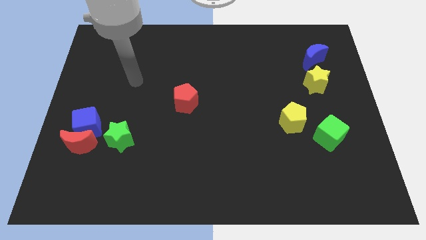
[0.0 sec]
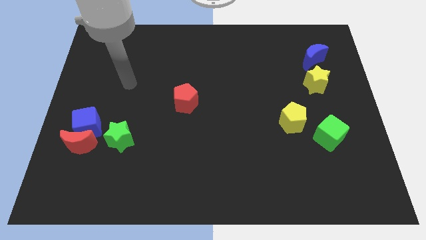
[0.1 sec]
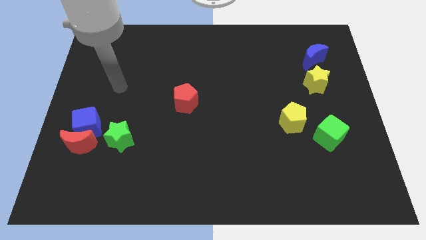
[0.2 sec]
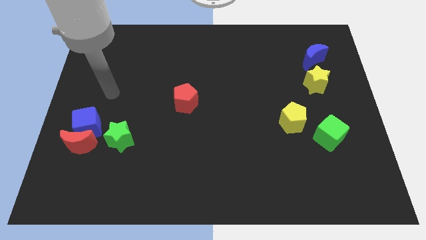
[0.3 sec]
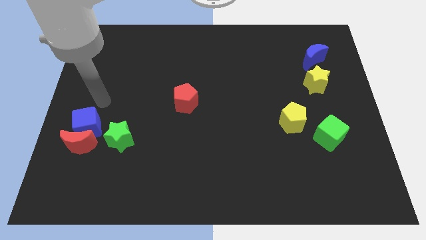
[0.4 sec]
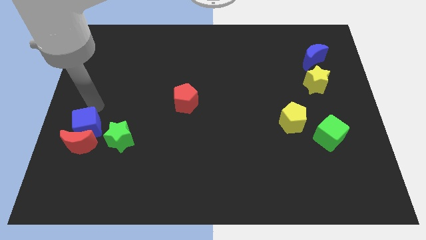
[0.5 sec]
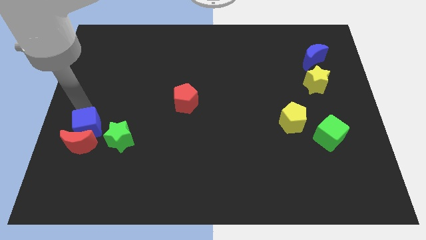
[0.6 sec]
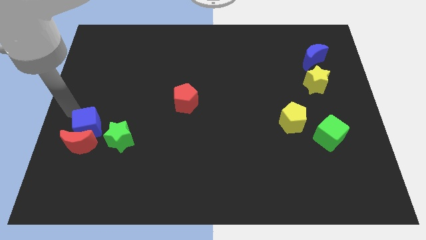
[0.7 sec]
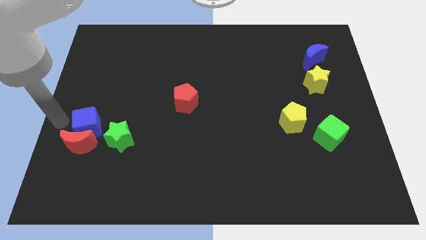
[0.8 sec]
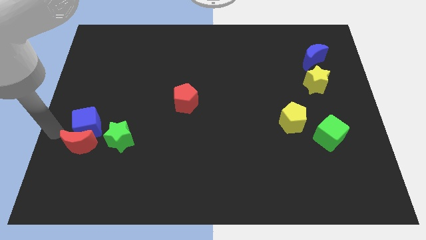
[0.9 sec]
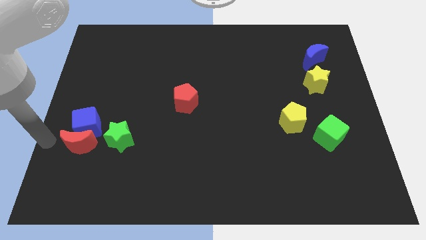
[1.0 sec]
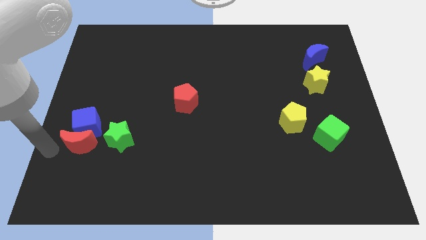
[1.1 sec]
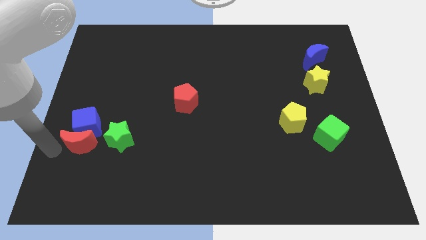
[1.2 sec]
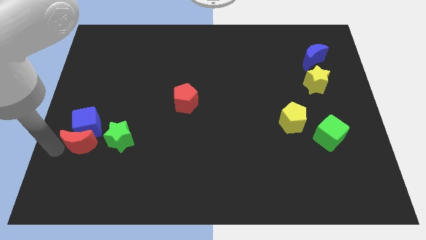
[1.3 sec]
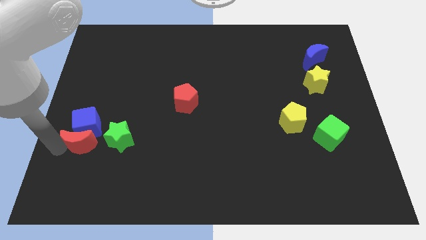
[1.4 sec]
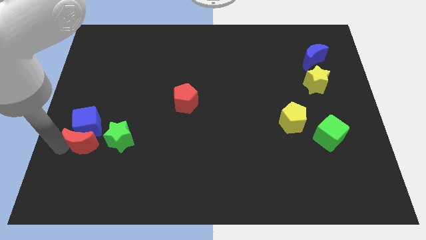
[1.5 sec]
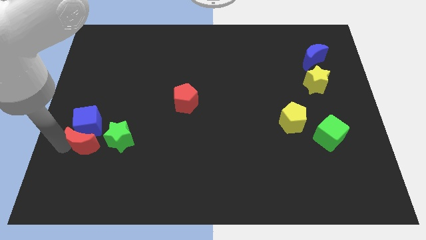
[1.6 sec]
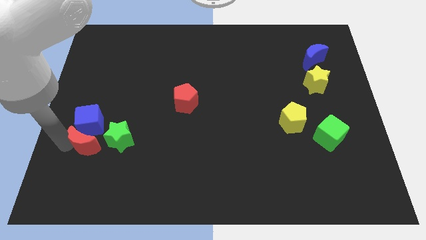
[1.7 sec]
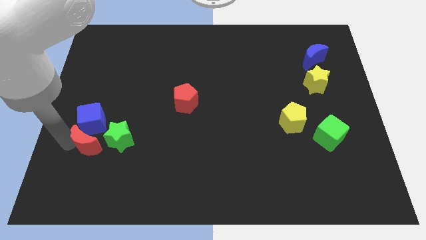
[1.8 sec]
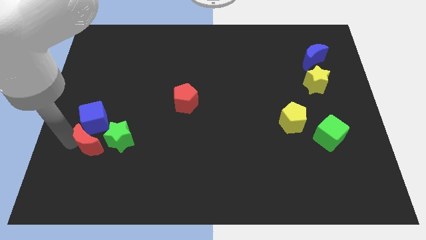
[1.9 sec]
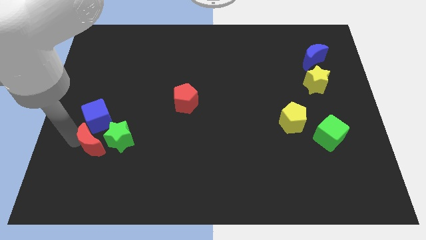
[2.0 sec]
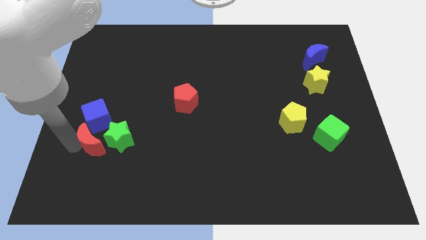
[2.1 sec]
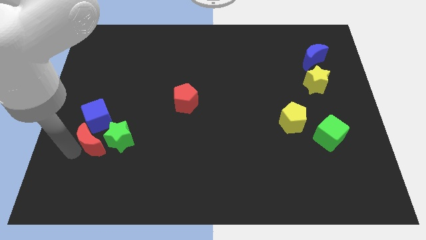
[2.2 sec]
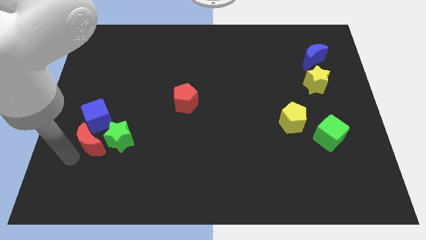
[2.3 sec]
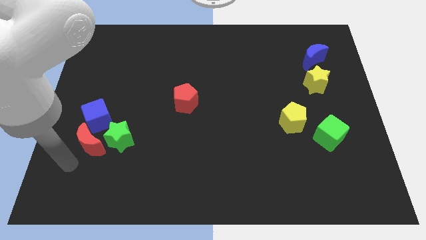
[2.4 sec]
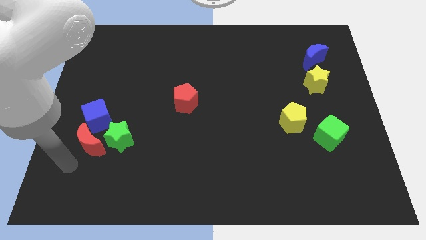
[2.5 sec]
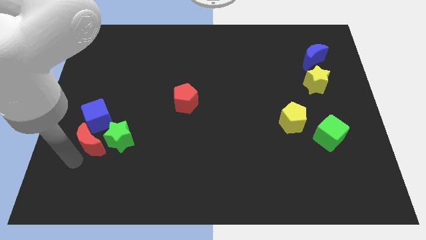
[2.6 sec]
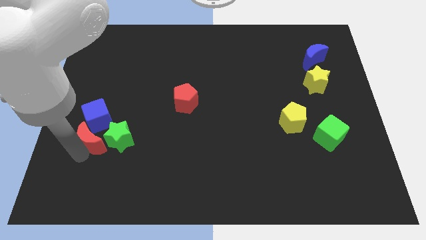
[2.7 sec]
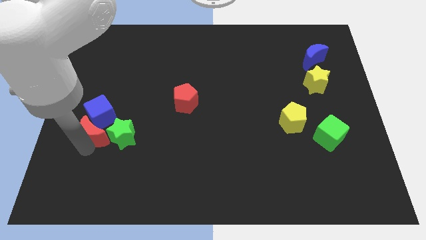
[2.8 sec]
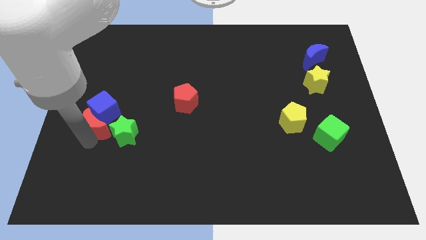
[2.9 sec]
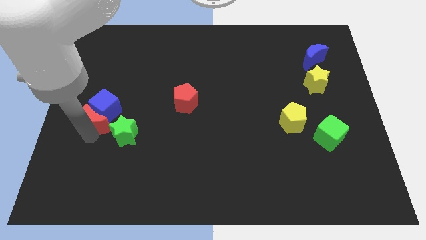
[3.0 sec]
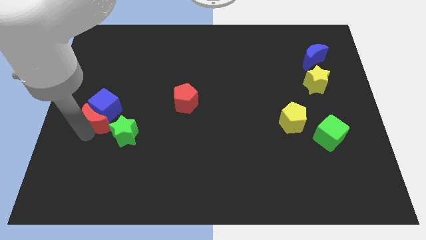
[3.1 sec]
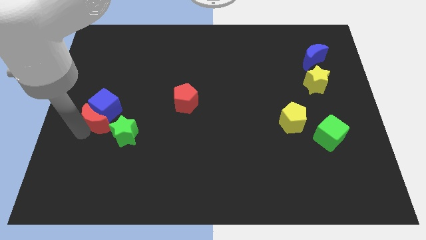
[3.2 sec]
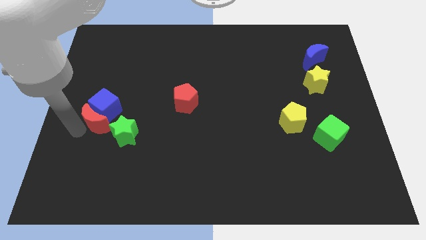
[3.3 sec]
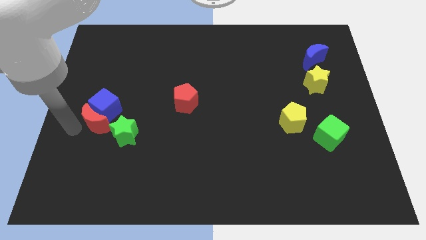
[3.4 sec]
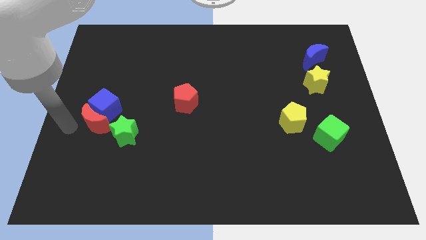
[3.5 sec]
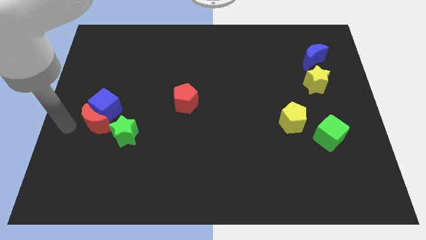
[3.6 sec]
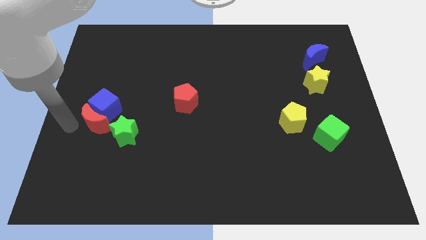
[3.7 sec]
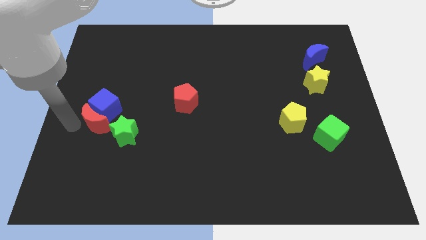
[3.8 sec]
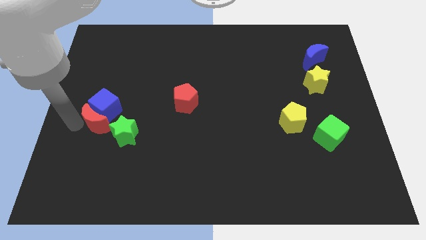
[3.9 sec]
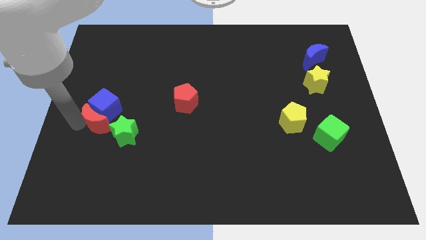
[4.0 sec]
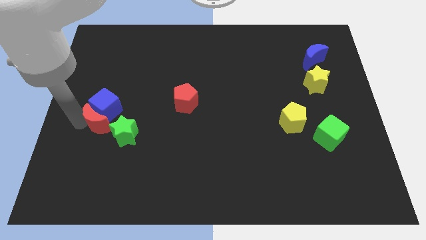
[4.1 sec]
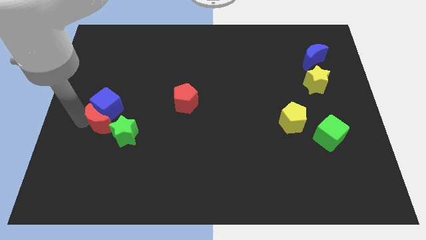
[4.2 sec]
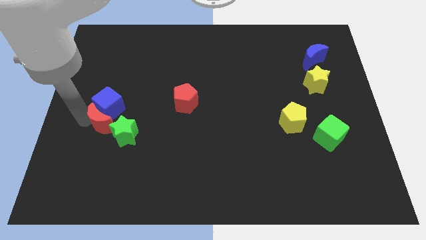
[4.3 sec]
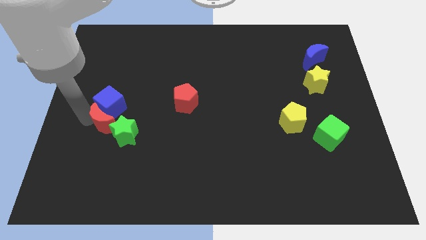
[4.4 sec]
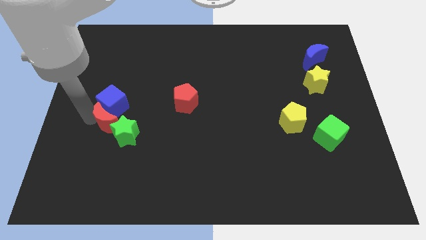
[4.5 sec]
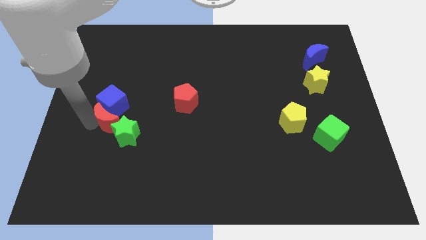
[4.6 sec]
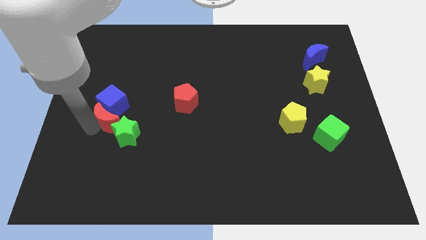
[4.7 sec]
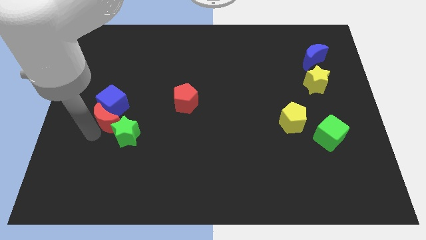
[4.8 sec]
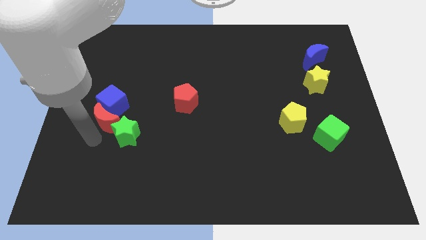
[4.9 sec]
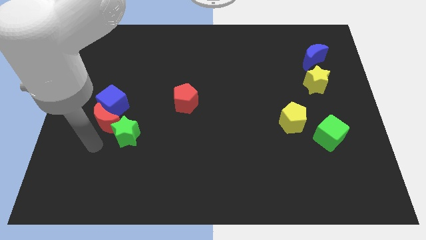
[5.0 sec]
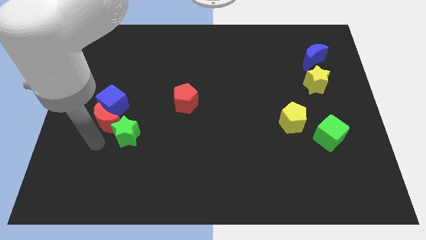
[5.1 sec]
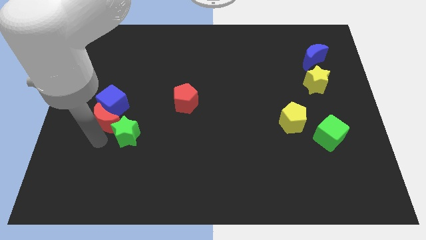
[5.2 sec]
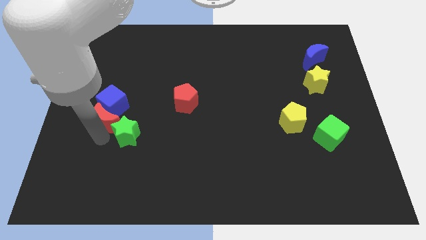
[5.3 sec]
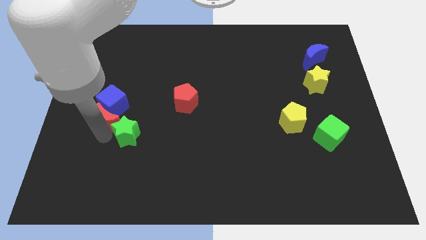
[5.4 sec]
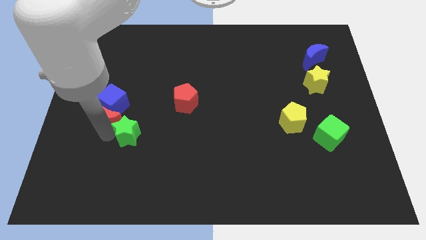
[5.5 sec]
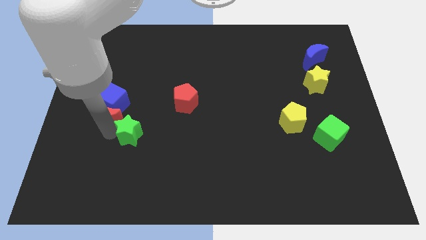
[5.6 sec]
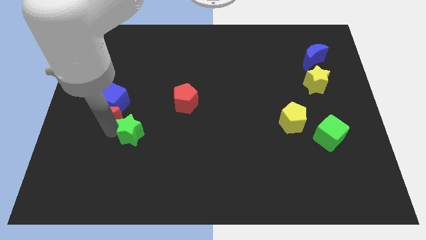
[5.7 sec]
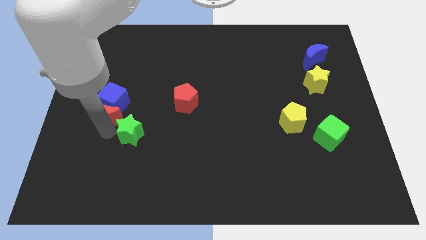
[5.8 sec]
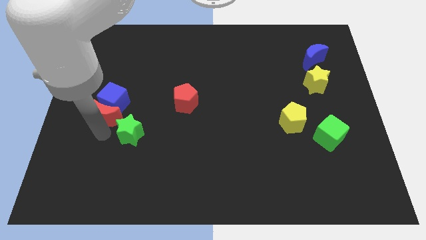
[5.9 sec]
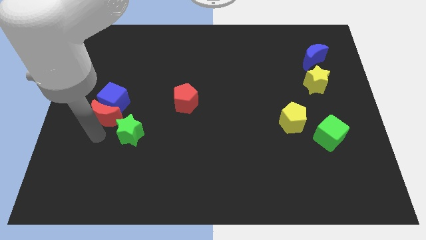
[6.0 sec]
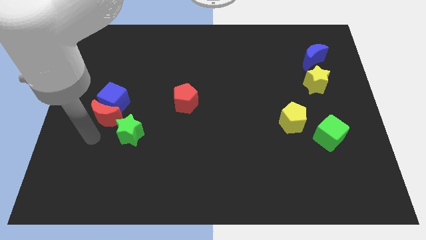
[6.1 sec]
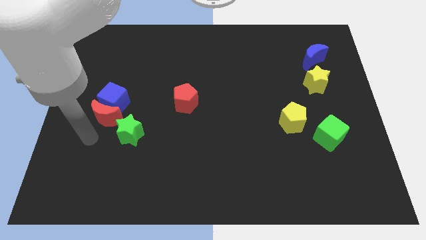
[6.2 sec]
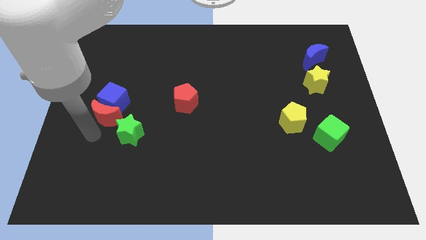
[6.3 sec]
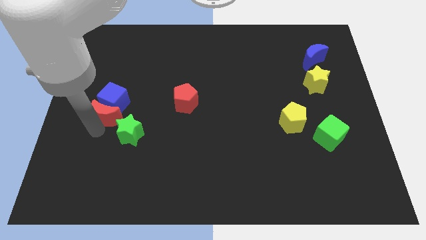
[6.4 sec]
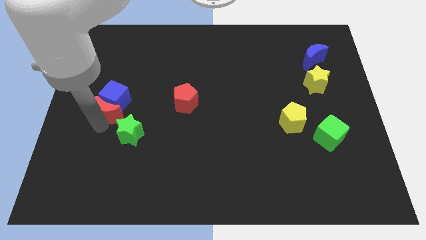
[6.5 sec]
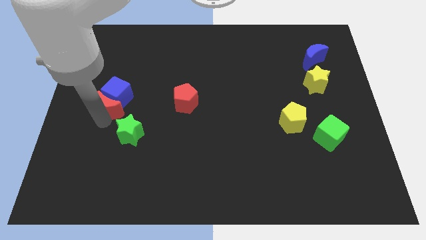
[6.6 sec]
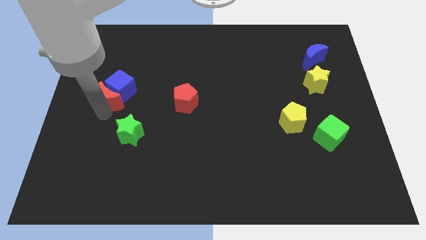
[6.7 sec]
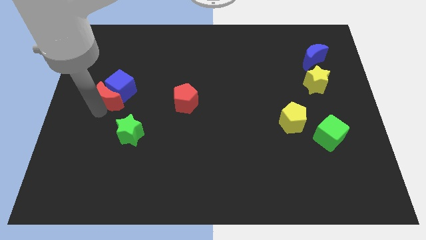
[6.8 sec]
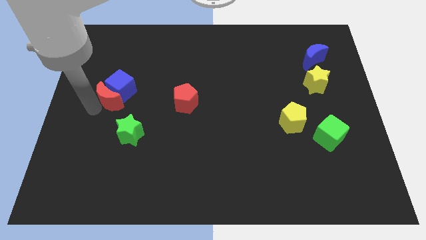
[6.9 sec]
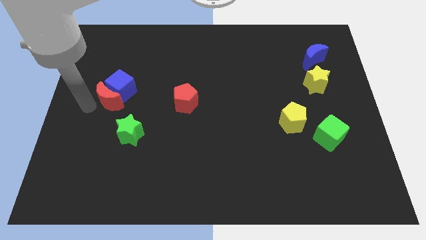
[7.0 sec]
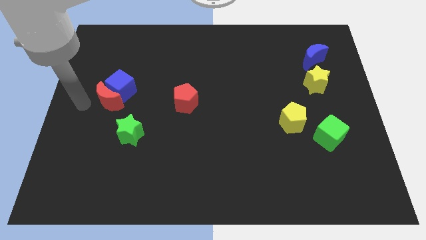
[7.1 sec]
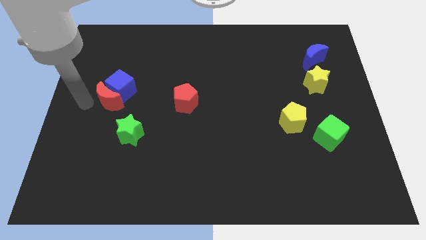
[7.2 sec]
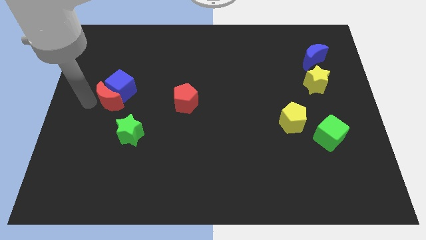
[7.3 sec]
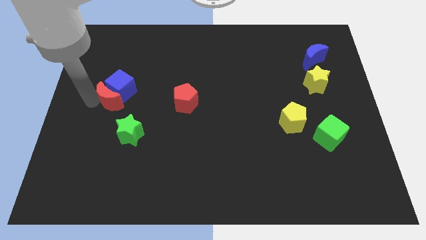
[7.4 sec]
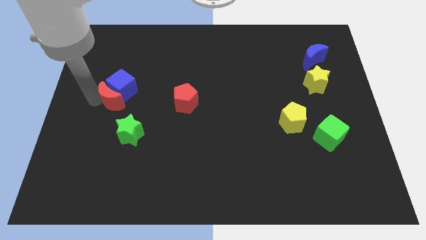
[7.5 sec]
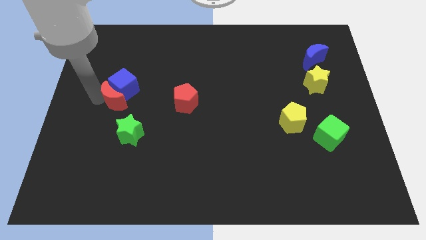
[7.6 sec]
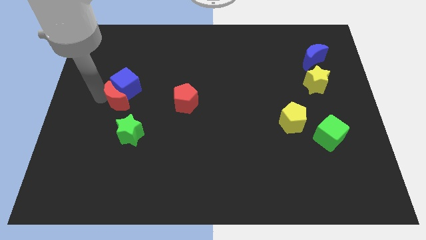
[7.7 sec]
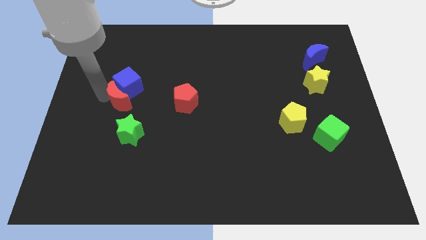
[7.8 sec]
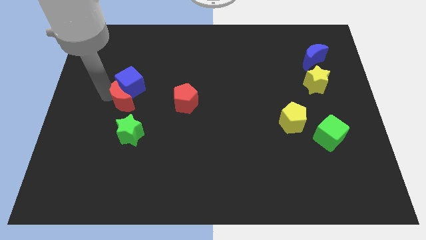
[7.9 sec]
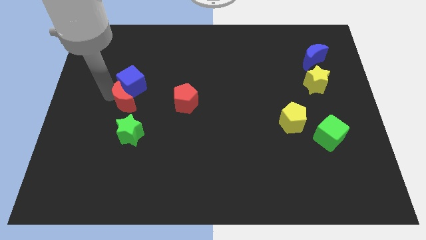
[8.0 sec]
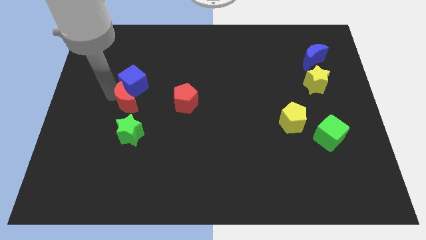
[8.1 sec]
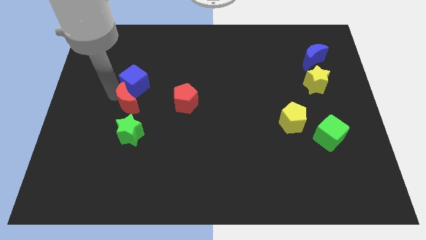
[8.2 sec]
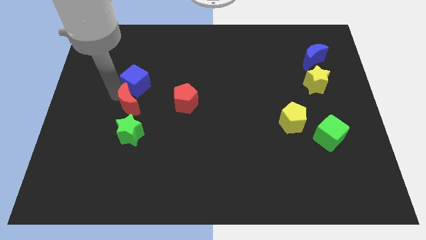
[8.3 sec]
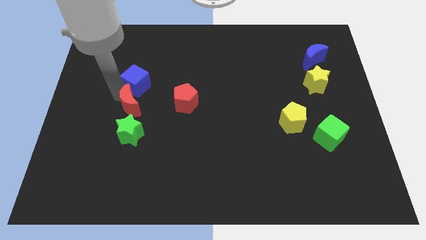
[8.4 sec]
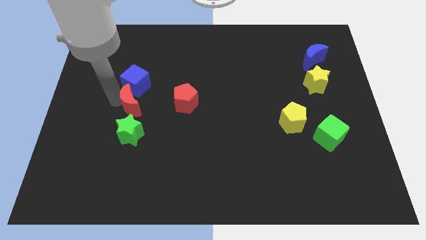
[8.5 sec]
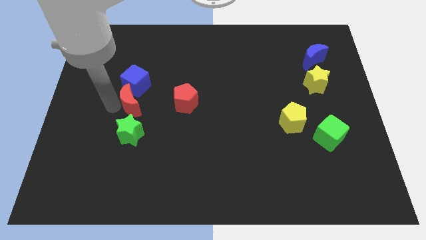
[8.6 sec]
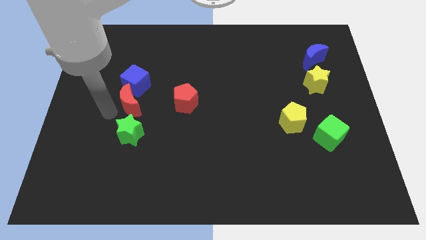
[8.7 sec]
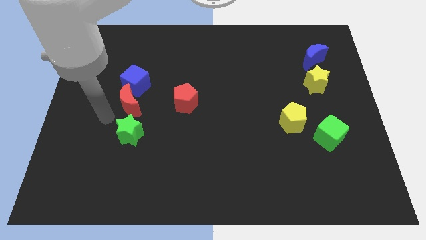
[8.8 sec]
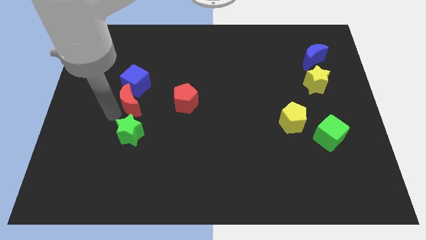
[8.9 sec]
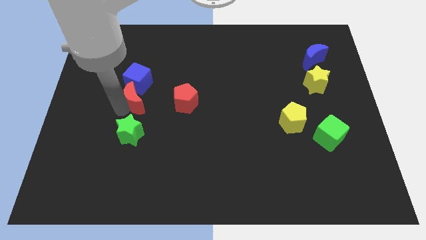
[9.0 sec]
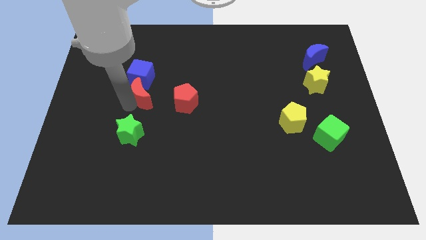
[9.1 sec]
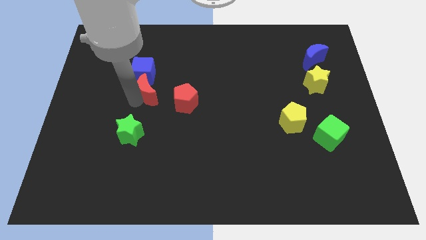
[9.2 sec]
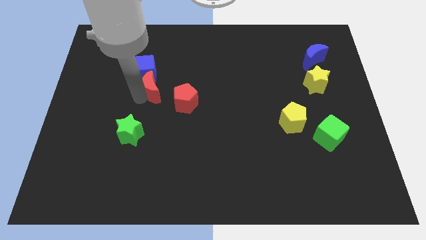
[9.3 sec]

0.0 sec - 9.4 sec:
push the red moon diagonally upwards and to the right
